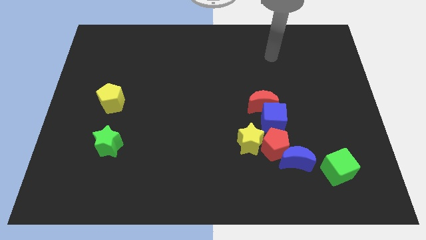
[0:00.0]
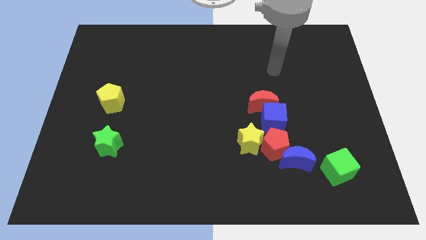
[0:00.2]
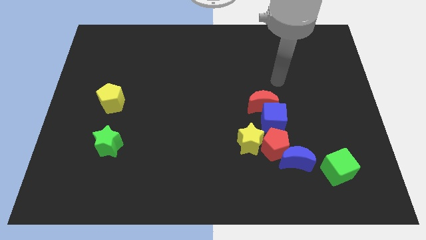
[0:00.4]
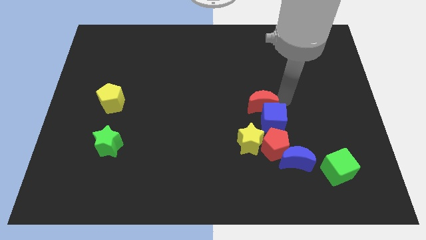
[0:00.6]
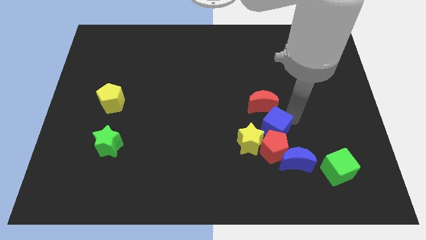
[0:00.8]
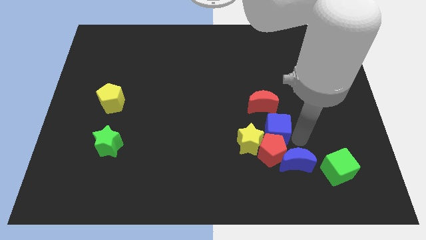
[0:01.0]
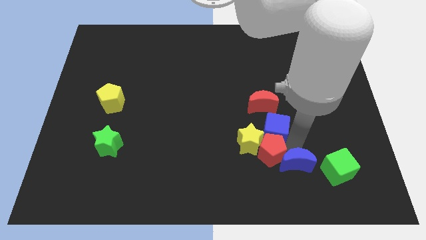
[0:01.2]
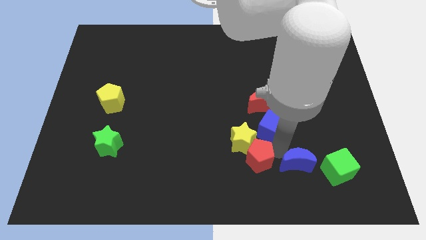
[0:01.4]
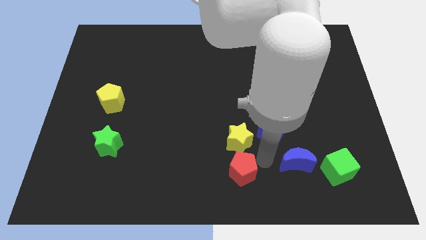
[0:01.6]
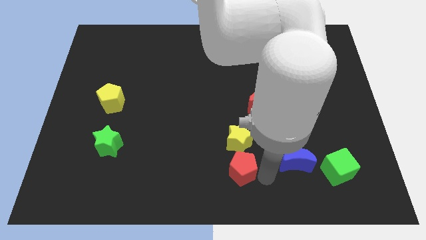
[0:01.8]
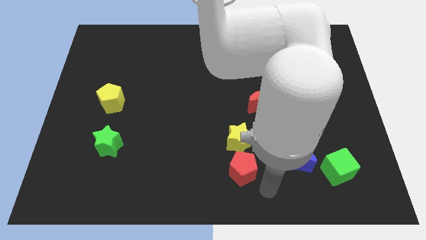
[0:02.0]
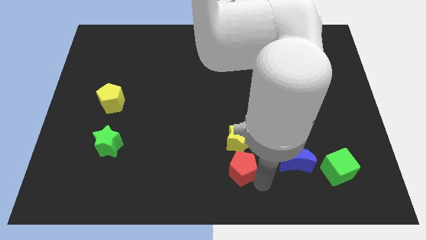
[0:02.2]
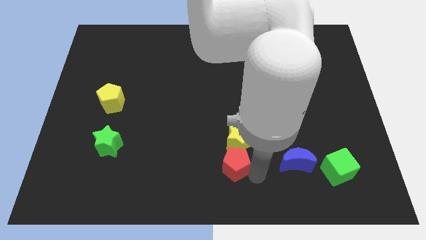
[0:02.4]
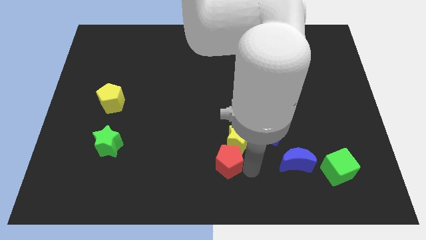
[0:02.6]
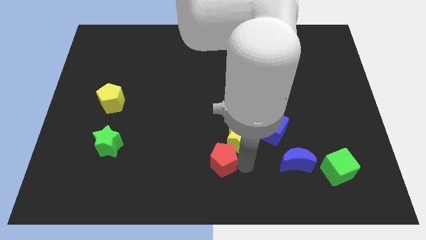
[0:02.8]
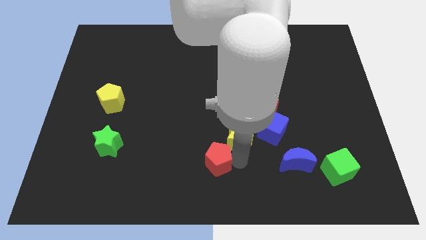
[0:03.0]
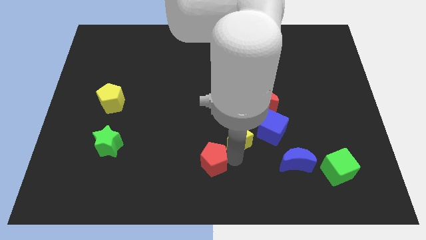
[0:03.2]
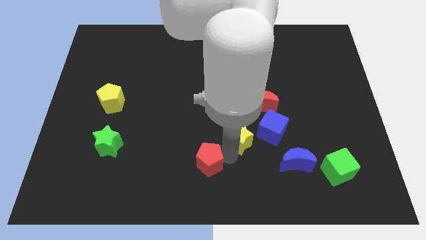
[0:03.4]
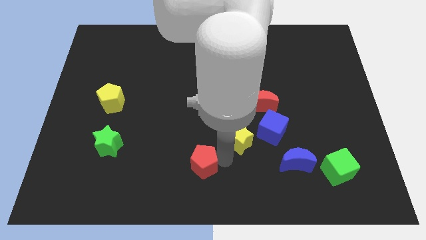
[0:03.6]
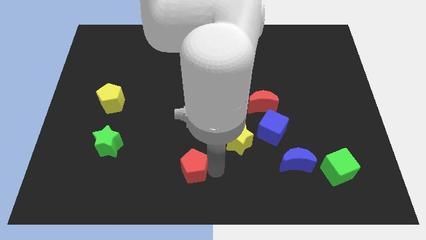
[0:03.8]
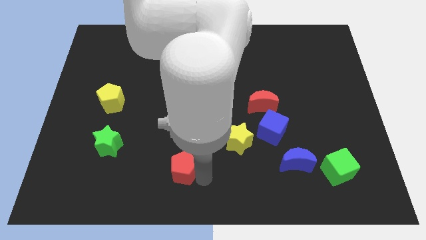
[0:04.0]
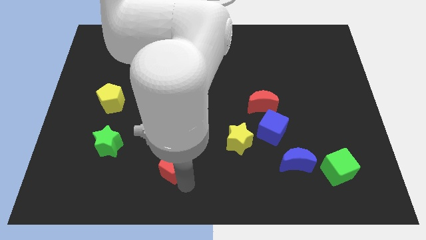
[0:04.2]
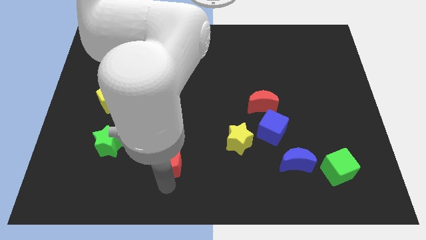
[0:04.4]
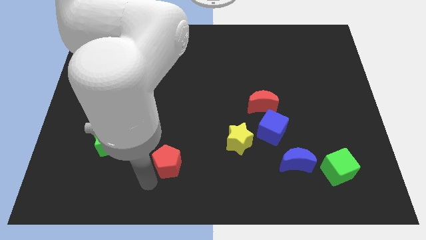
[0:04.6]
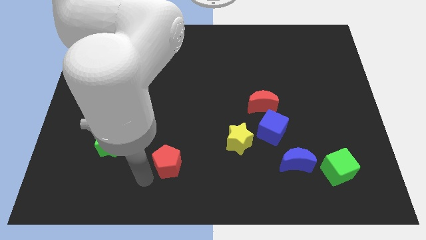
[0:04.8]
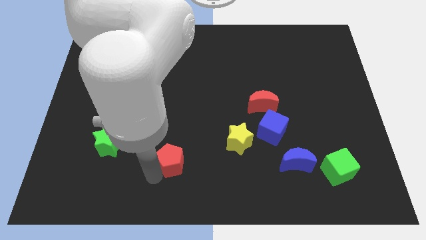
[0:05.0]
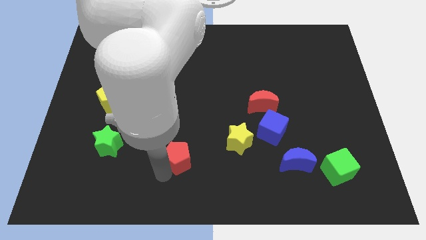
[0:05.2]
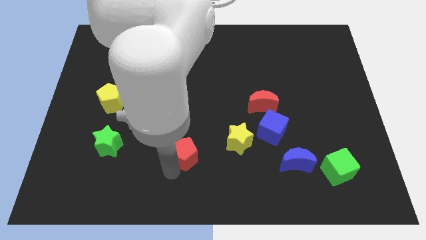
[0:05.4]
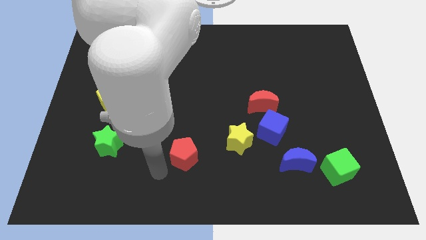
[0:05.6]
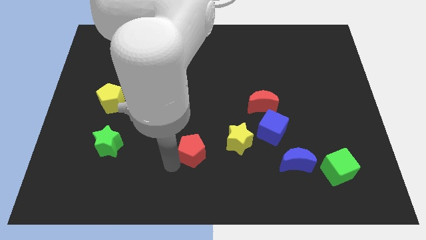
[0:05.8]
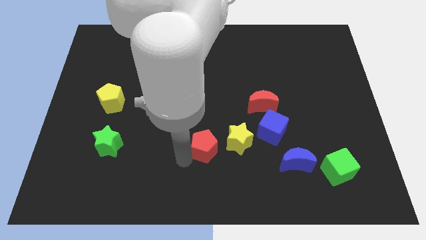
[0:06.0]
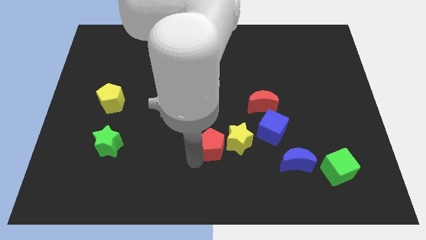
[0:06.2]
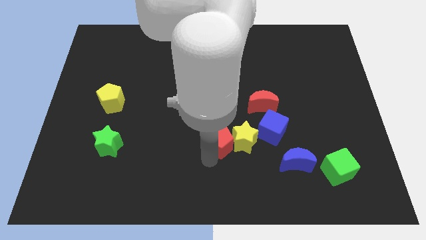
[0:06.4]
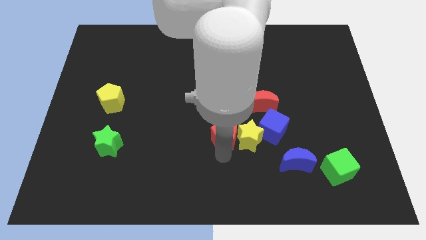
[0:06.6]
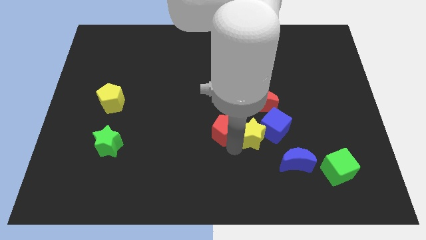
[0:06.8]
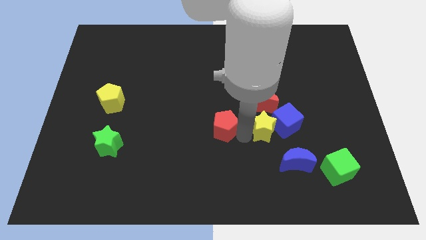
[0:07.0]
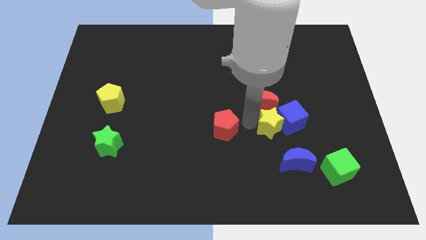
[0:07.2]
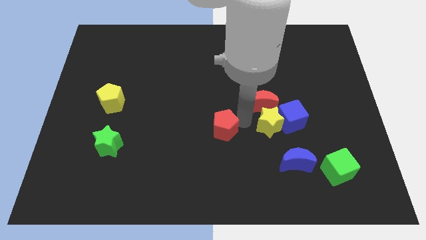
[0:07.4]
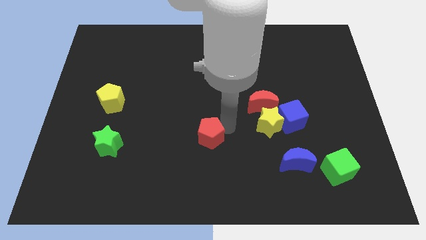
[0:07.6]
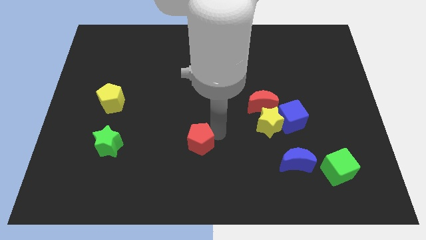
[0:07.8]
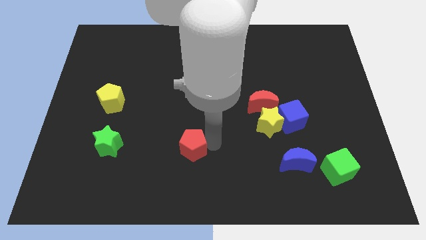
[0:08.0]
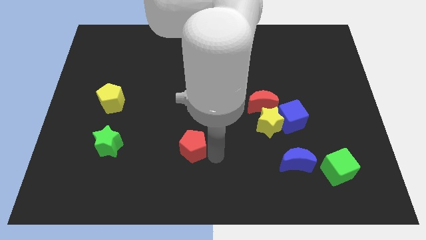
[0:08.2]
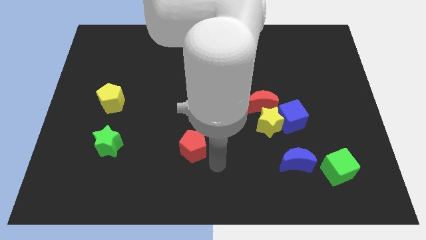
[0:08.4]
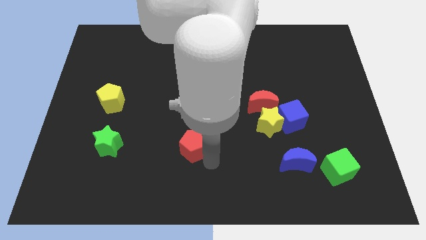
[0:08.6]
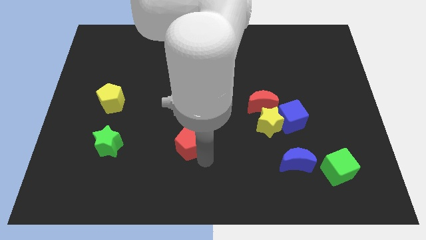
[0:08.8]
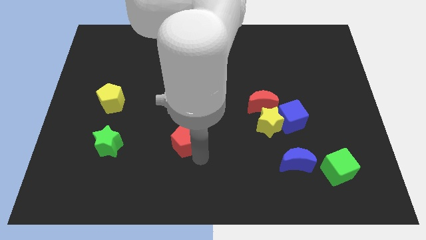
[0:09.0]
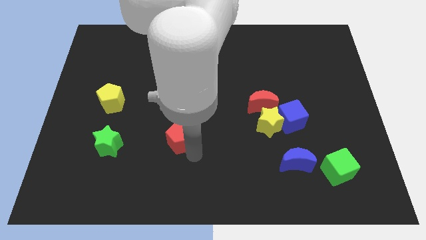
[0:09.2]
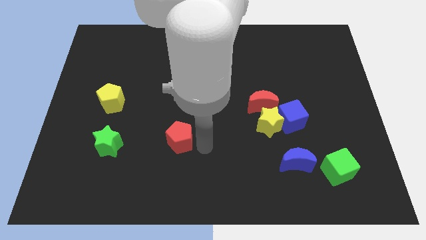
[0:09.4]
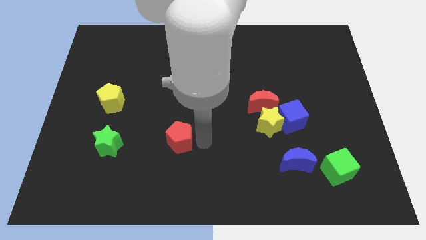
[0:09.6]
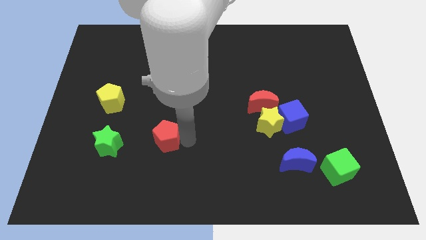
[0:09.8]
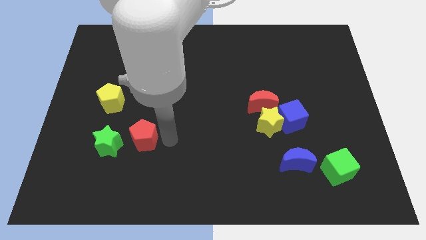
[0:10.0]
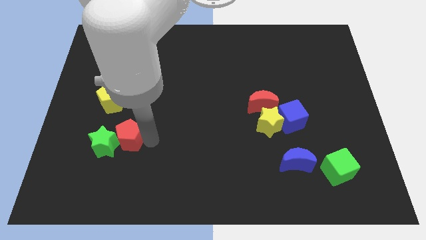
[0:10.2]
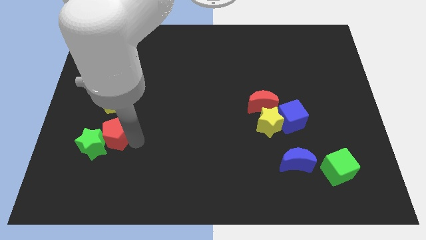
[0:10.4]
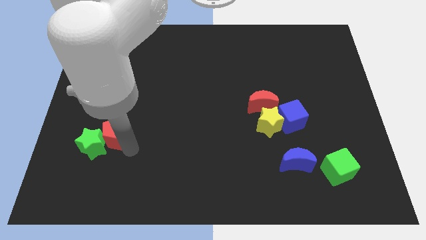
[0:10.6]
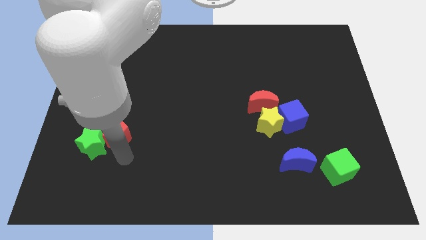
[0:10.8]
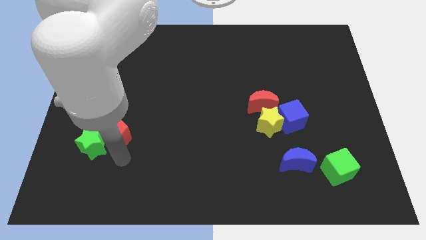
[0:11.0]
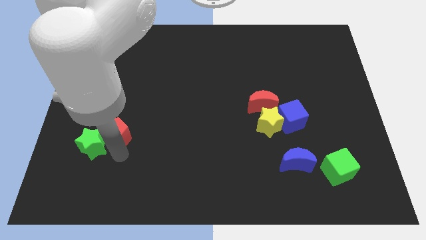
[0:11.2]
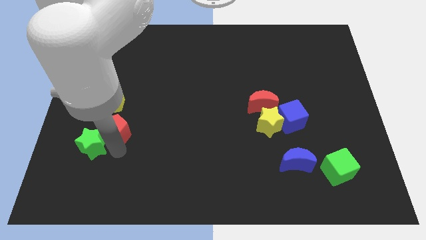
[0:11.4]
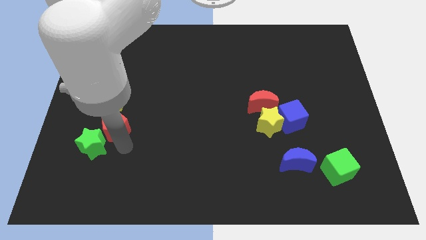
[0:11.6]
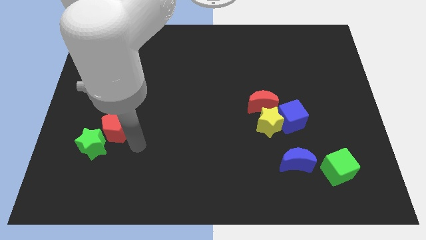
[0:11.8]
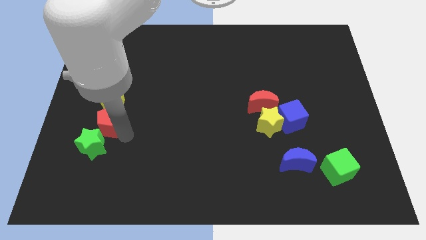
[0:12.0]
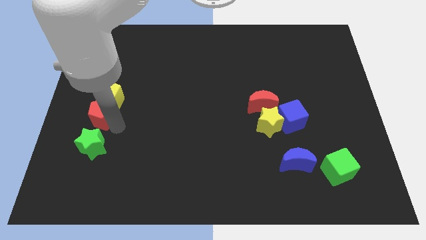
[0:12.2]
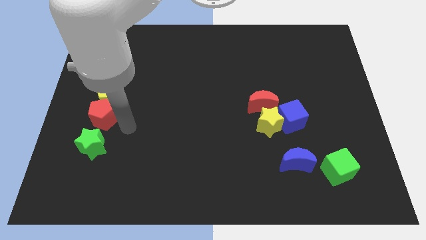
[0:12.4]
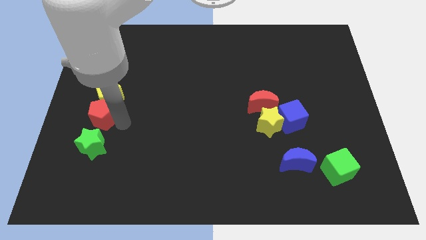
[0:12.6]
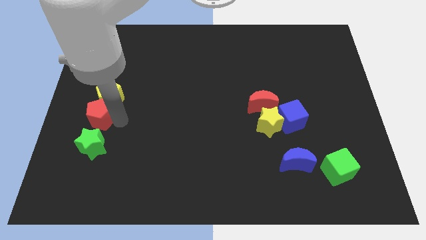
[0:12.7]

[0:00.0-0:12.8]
put the red pentagon to the left side
